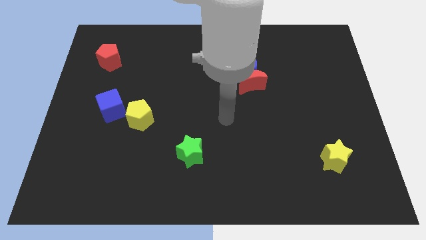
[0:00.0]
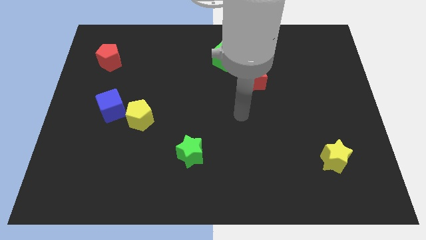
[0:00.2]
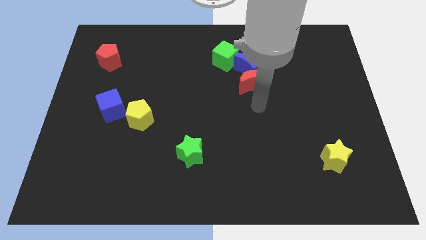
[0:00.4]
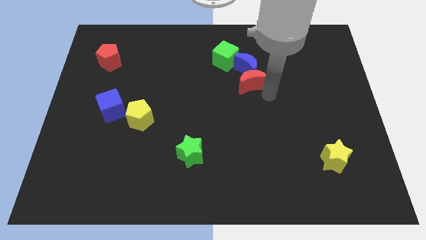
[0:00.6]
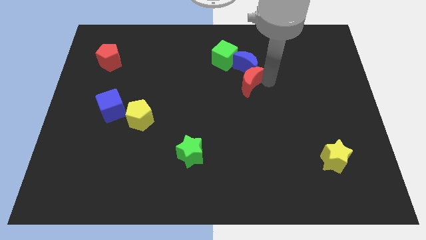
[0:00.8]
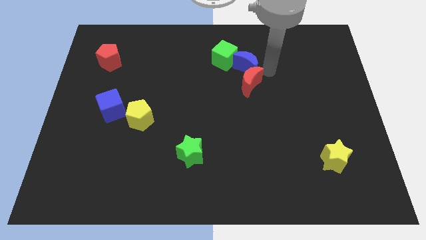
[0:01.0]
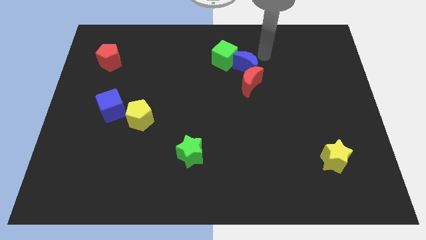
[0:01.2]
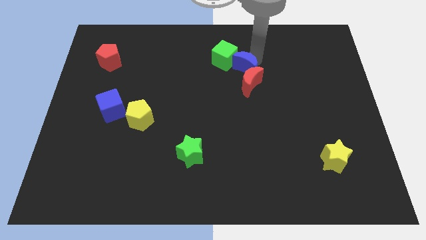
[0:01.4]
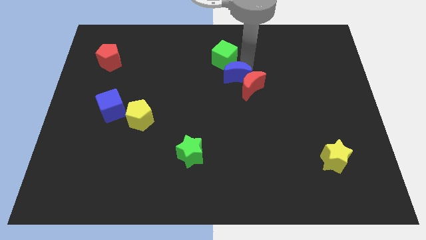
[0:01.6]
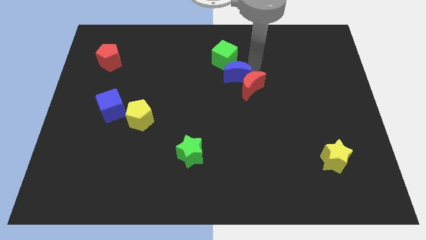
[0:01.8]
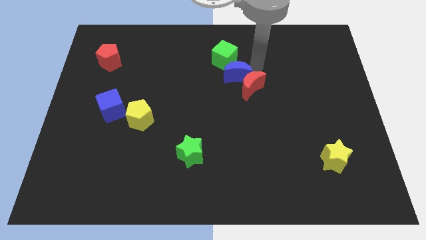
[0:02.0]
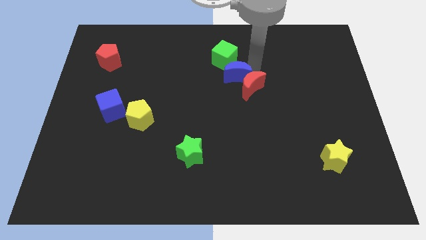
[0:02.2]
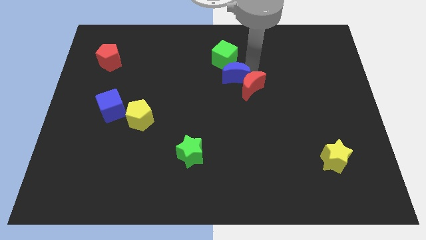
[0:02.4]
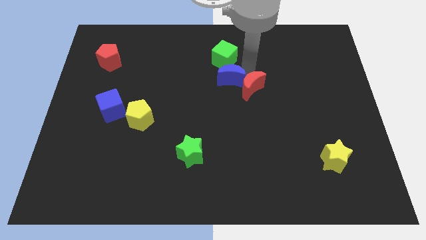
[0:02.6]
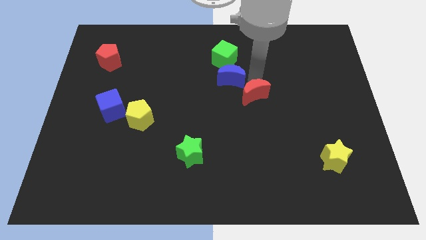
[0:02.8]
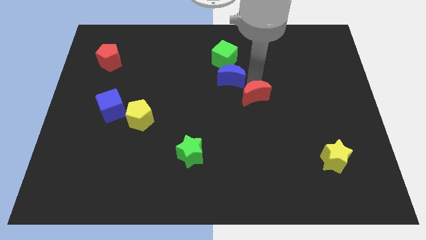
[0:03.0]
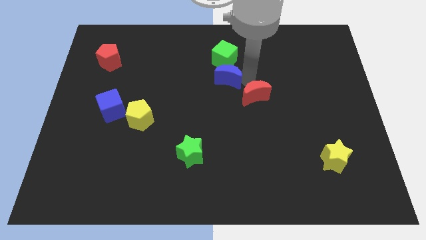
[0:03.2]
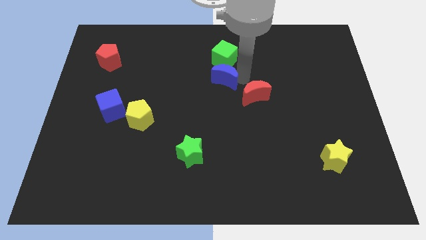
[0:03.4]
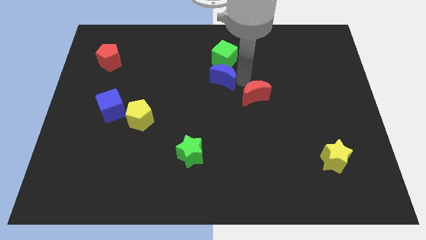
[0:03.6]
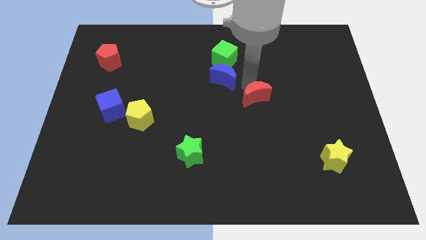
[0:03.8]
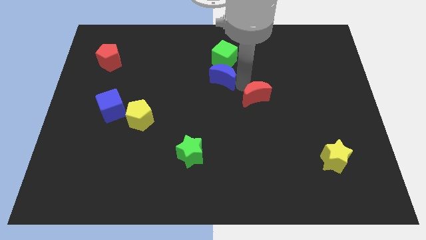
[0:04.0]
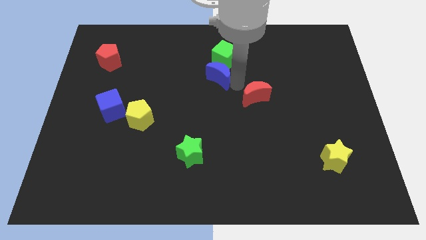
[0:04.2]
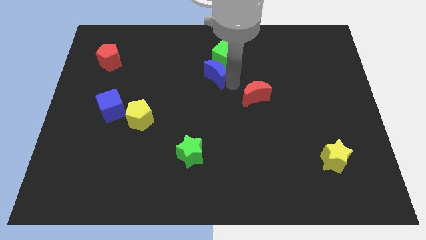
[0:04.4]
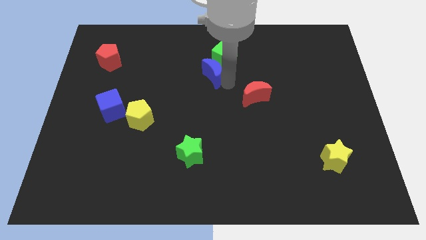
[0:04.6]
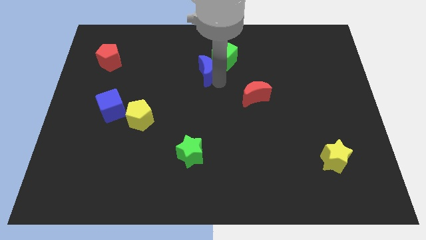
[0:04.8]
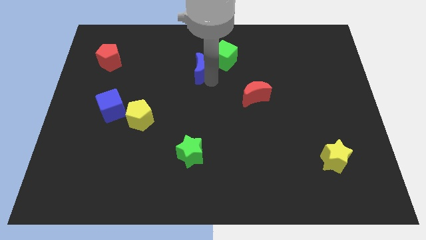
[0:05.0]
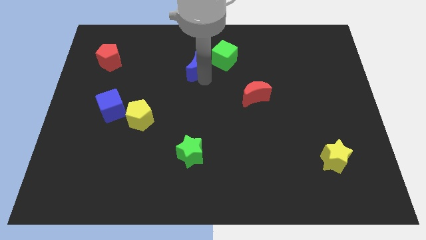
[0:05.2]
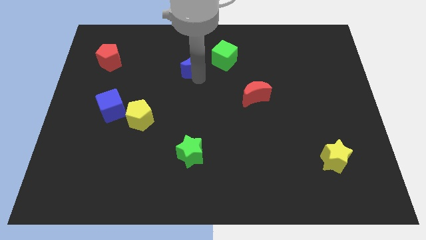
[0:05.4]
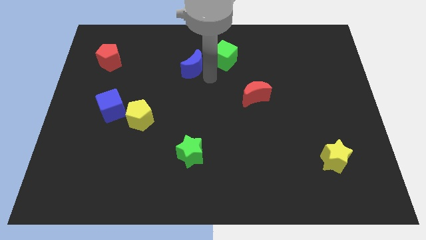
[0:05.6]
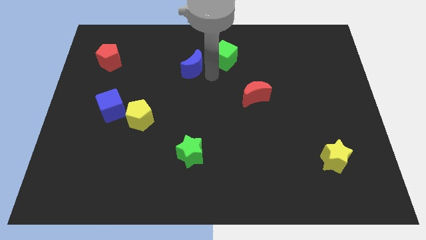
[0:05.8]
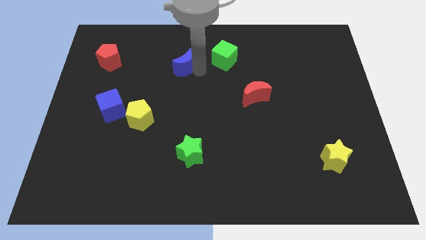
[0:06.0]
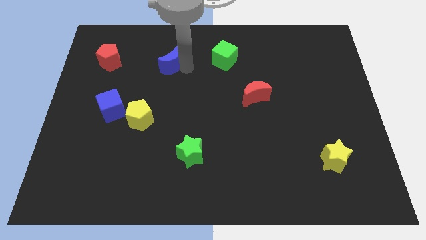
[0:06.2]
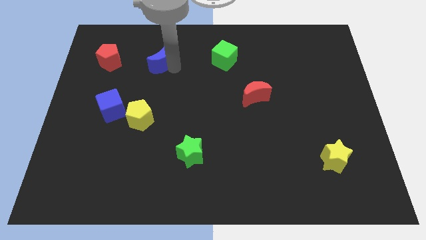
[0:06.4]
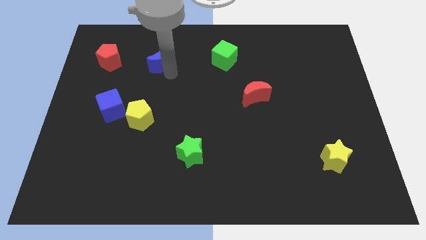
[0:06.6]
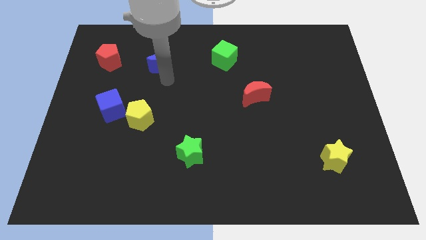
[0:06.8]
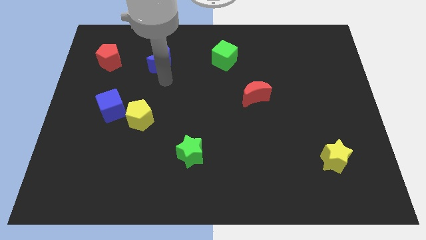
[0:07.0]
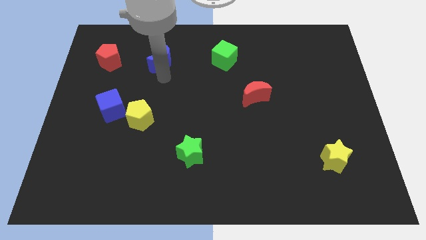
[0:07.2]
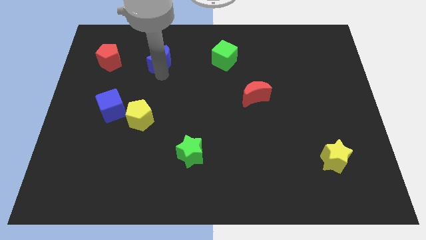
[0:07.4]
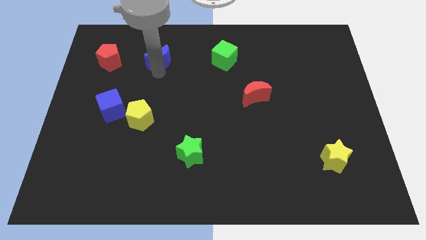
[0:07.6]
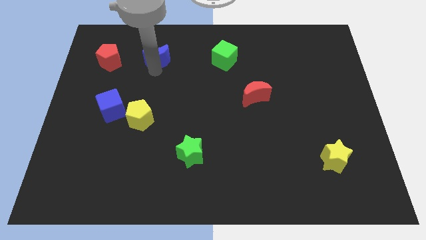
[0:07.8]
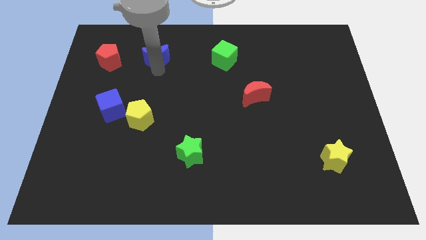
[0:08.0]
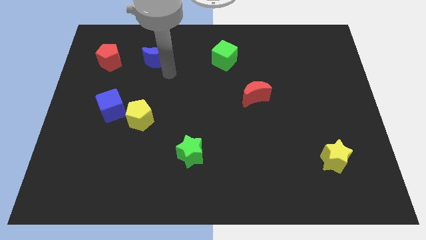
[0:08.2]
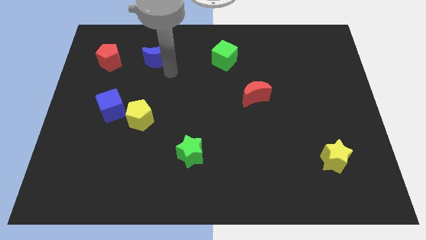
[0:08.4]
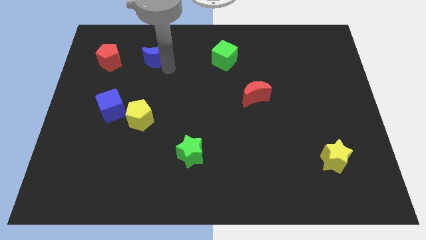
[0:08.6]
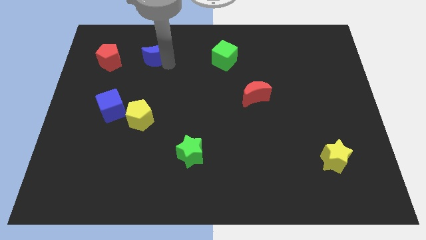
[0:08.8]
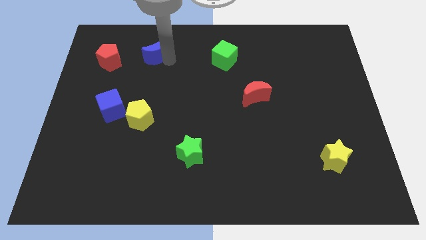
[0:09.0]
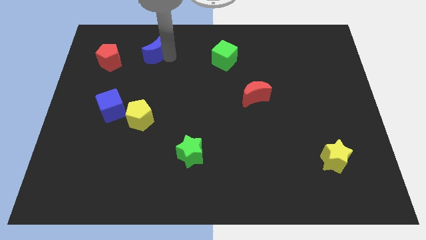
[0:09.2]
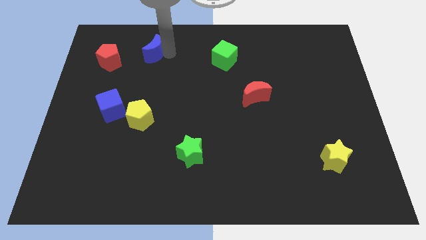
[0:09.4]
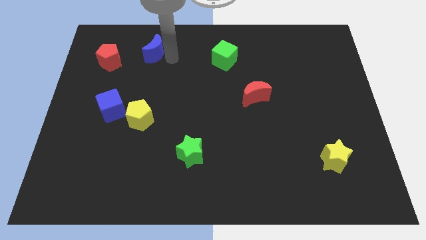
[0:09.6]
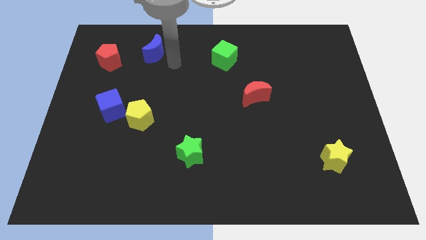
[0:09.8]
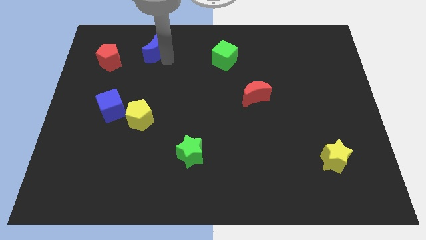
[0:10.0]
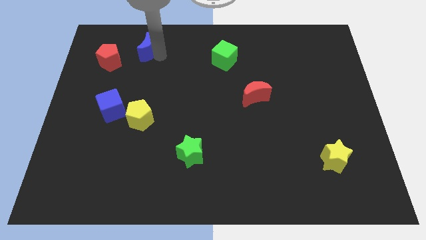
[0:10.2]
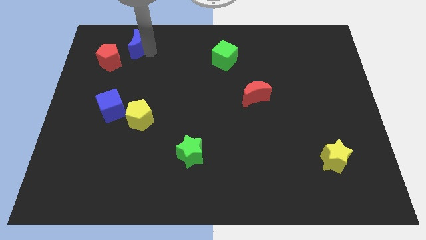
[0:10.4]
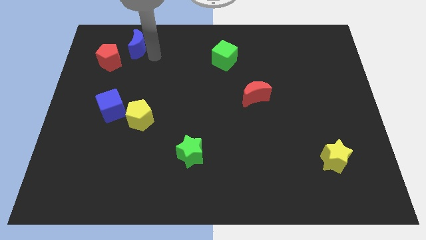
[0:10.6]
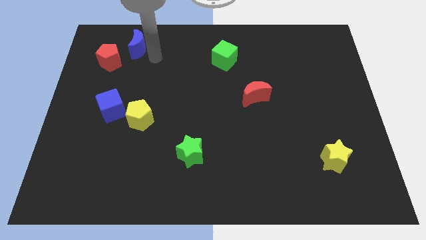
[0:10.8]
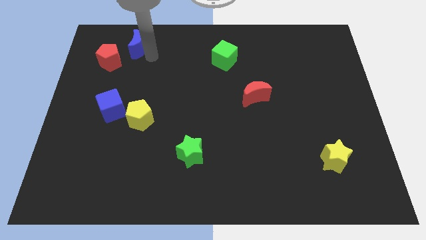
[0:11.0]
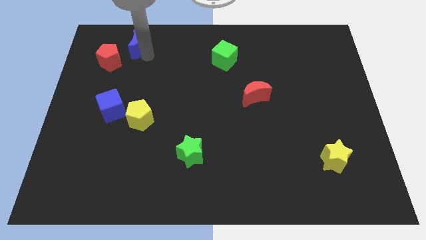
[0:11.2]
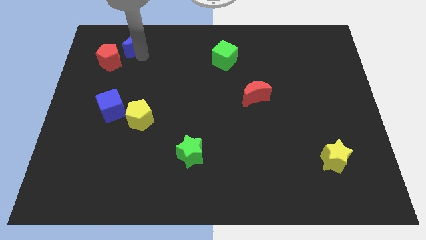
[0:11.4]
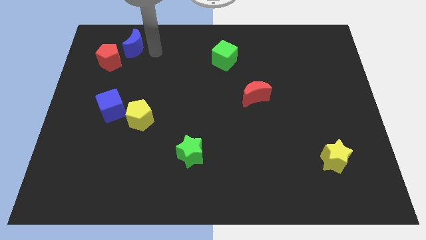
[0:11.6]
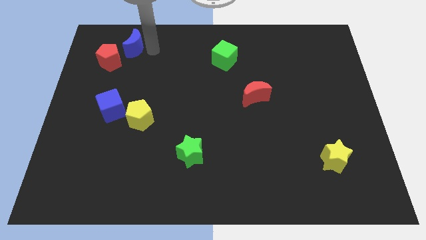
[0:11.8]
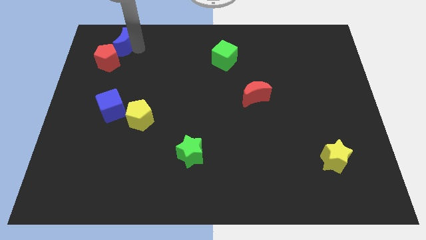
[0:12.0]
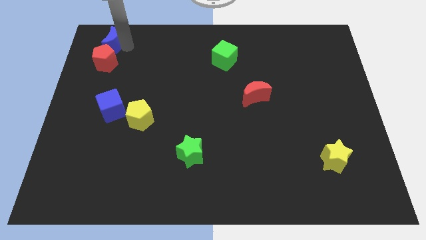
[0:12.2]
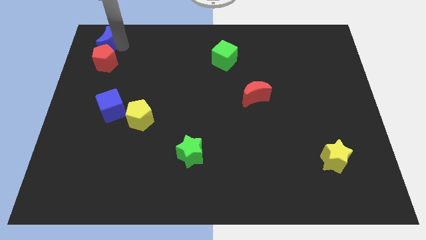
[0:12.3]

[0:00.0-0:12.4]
slide the blue moon to the top left of the board

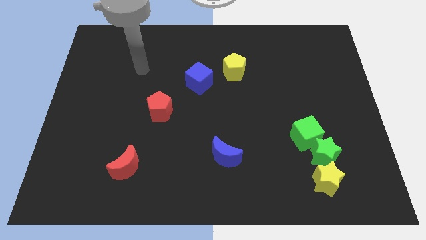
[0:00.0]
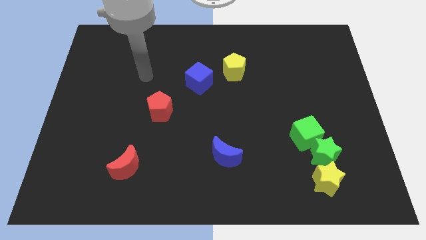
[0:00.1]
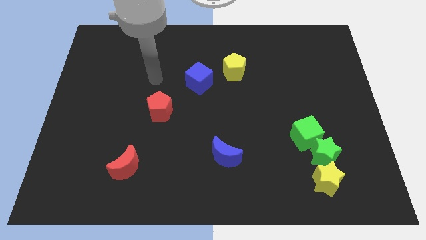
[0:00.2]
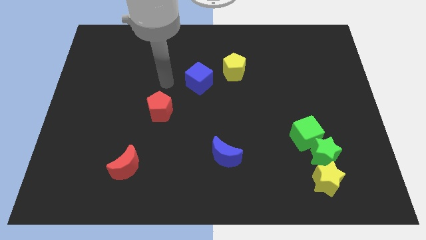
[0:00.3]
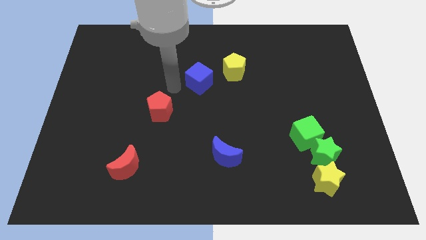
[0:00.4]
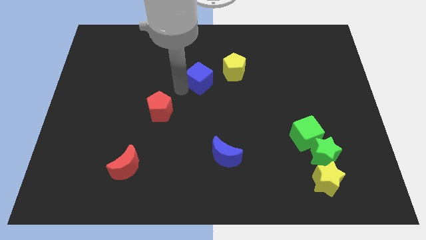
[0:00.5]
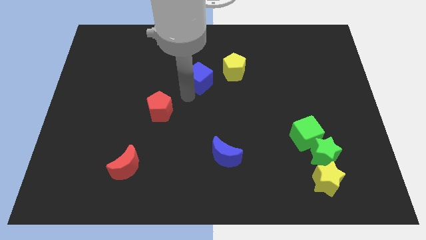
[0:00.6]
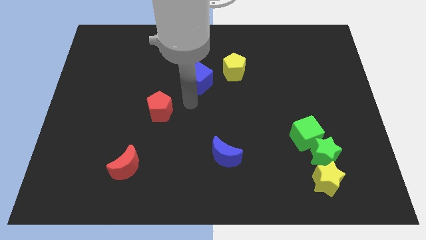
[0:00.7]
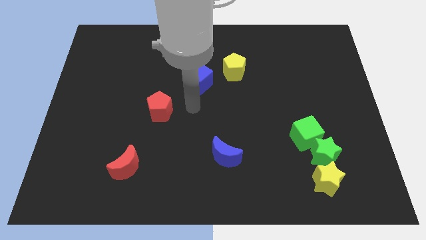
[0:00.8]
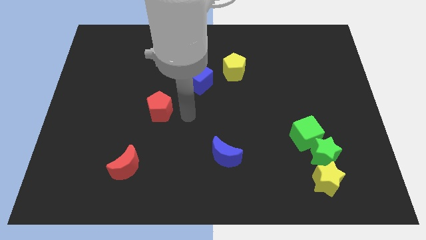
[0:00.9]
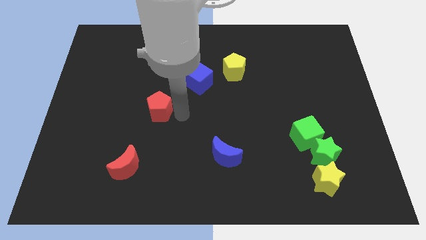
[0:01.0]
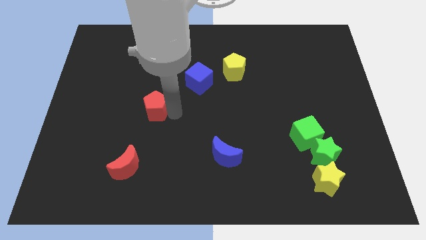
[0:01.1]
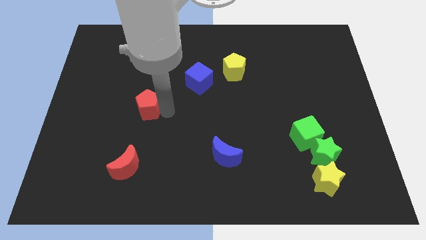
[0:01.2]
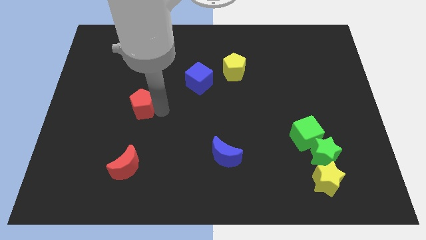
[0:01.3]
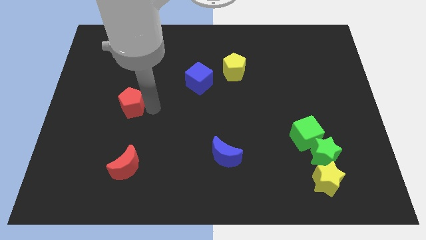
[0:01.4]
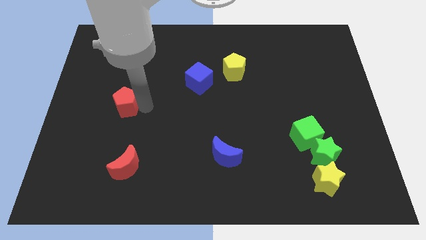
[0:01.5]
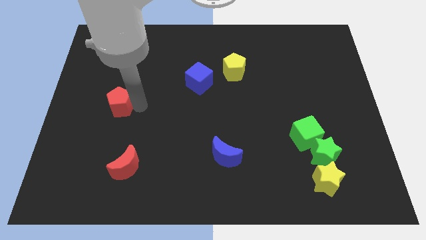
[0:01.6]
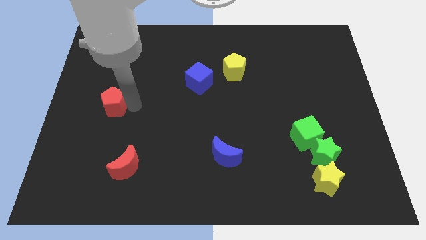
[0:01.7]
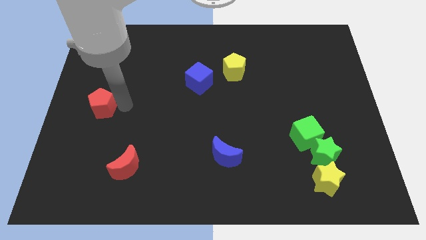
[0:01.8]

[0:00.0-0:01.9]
push the red pentagon to the center left
